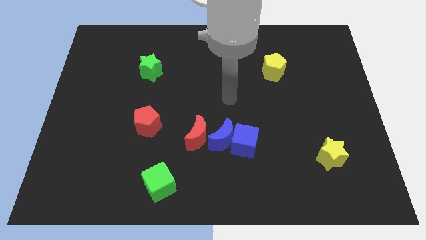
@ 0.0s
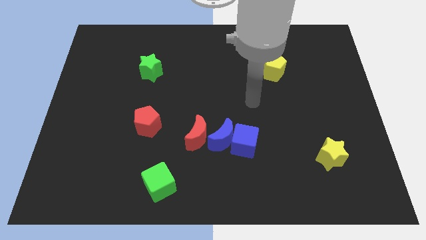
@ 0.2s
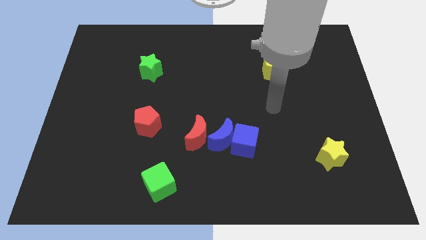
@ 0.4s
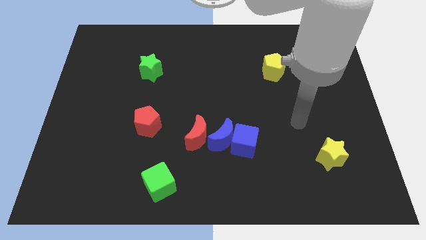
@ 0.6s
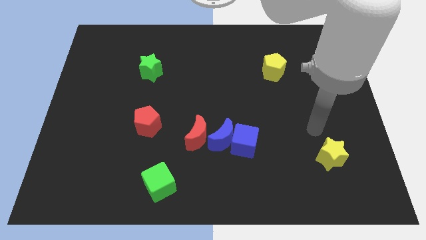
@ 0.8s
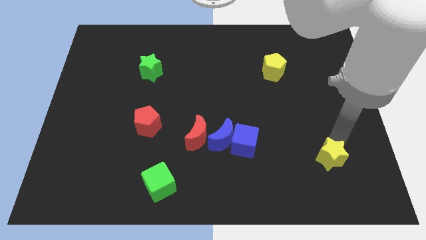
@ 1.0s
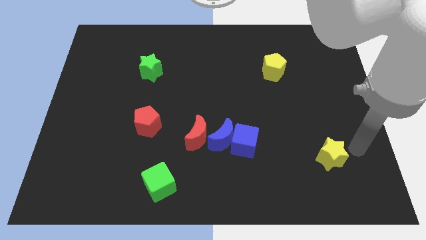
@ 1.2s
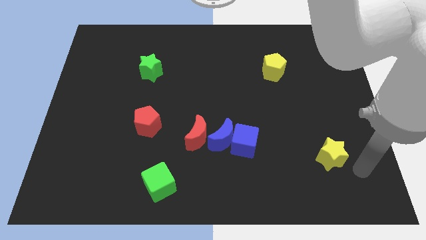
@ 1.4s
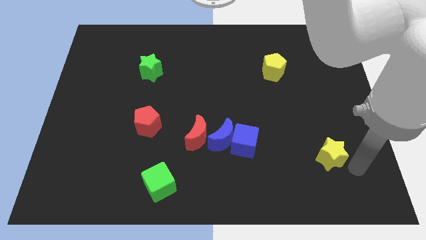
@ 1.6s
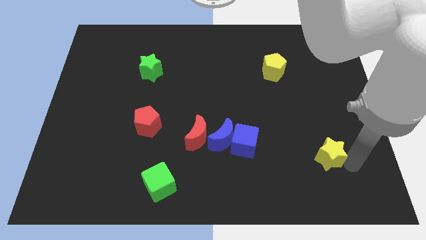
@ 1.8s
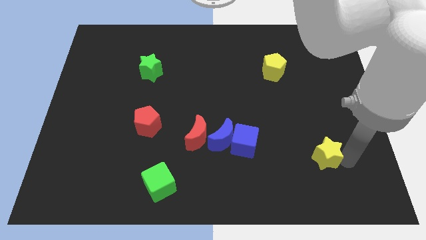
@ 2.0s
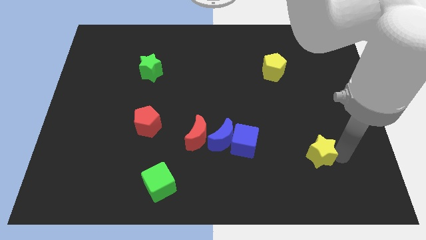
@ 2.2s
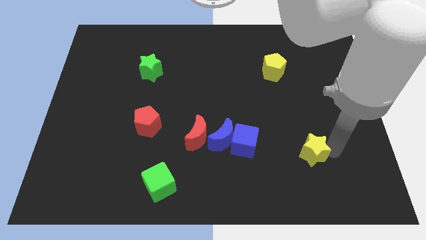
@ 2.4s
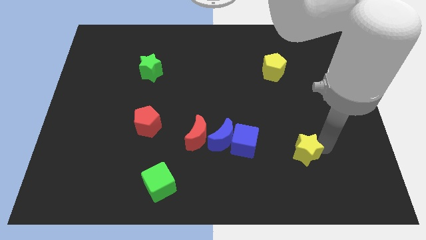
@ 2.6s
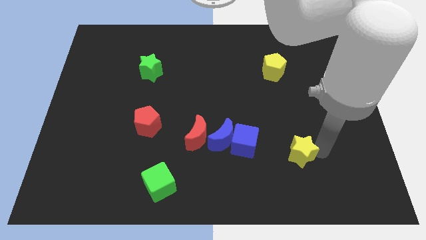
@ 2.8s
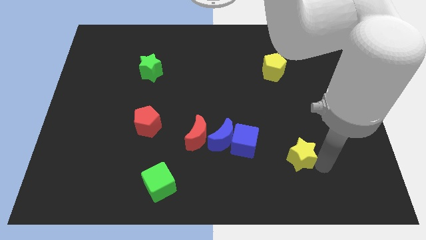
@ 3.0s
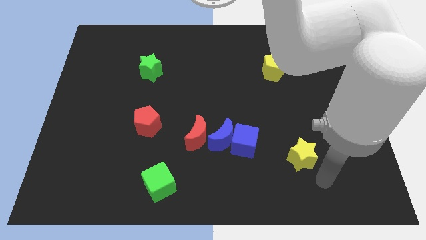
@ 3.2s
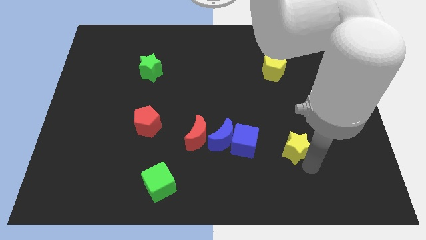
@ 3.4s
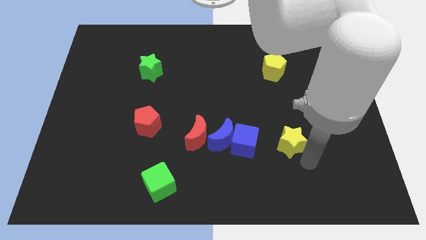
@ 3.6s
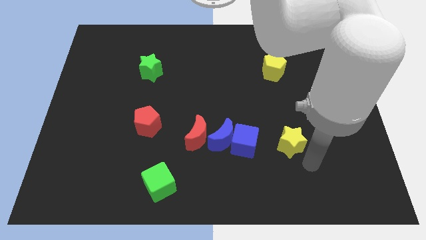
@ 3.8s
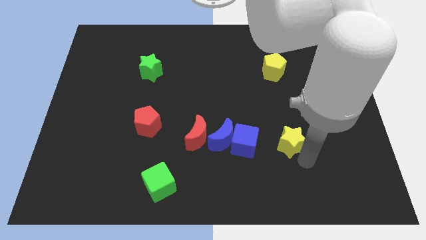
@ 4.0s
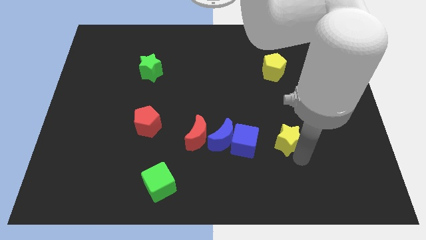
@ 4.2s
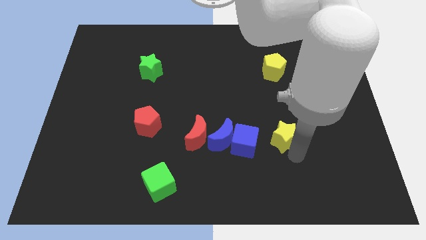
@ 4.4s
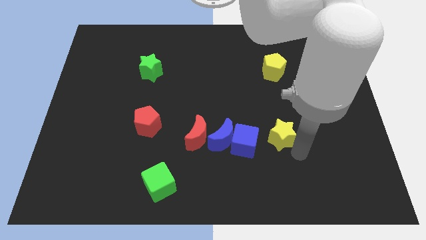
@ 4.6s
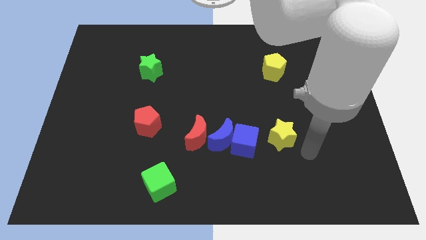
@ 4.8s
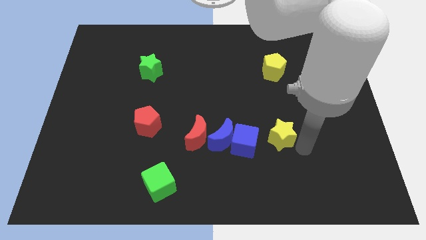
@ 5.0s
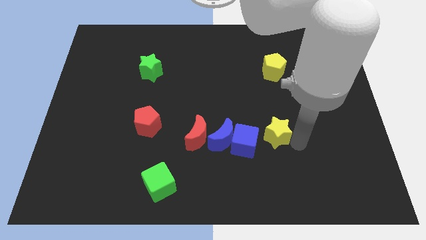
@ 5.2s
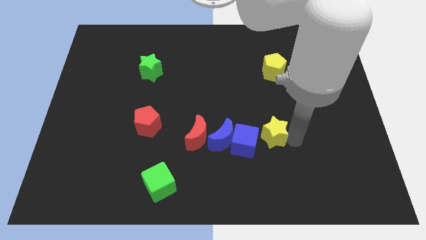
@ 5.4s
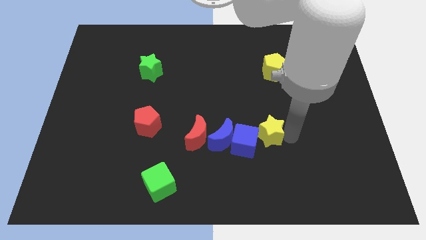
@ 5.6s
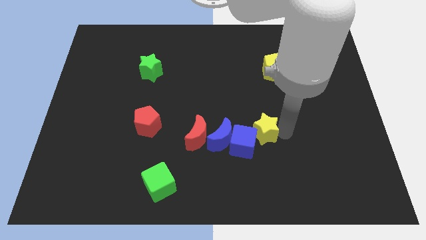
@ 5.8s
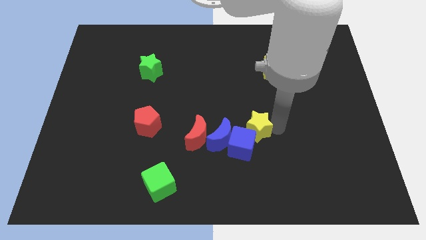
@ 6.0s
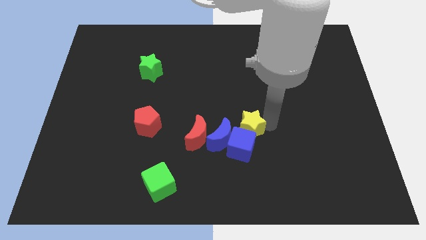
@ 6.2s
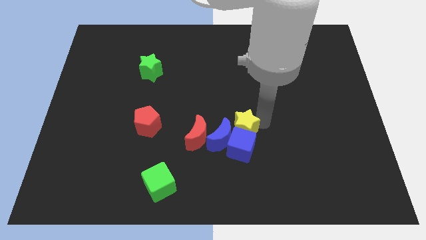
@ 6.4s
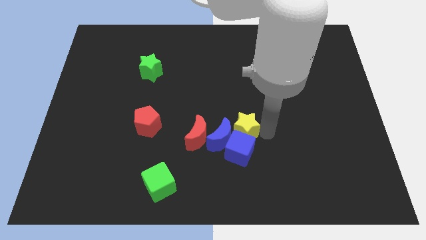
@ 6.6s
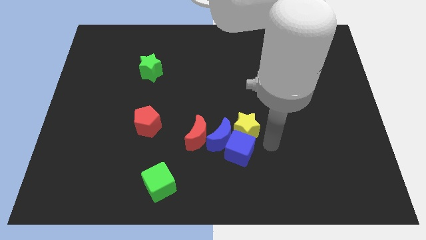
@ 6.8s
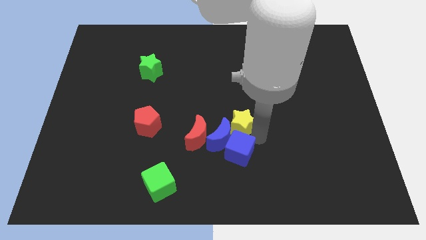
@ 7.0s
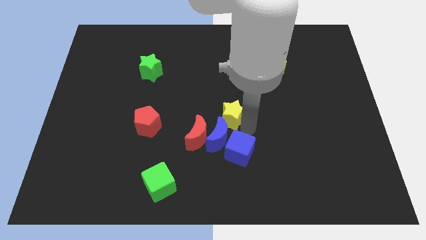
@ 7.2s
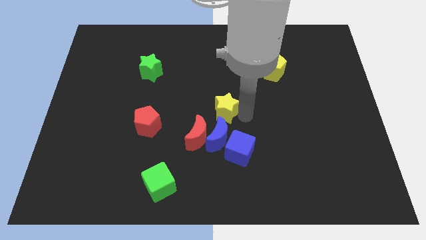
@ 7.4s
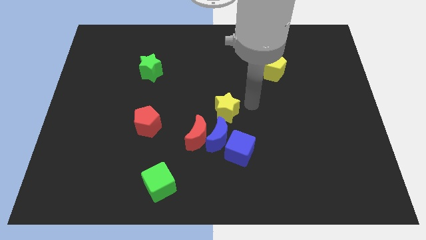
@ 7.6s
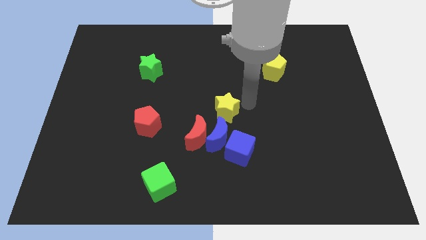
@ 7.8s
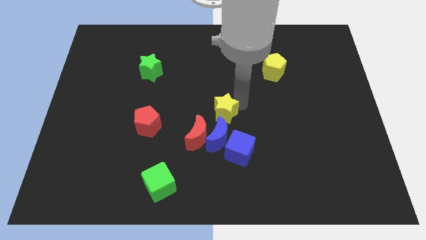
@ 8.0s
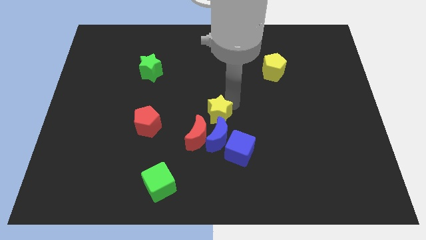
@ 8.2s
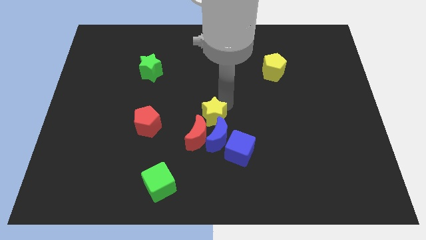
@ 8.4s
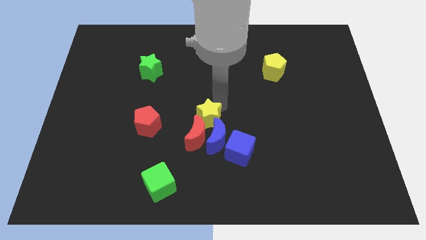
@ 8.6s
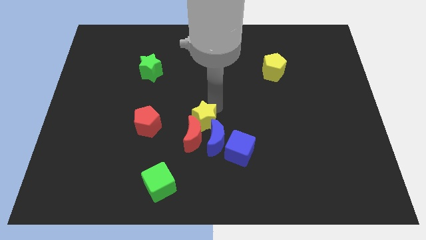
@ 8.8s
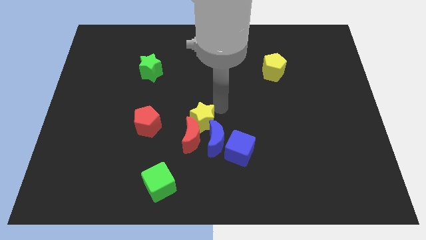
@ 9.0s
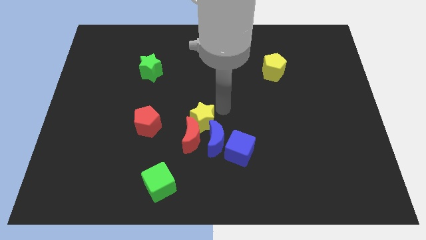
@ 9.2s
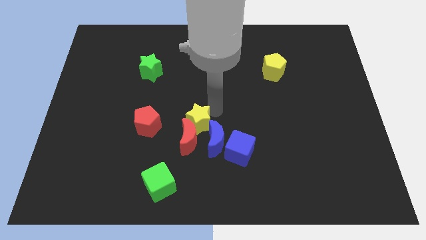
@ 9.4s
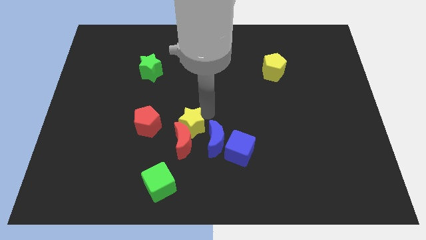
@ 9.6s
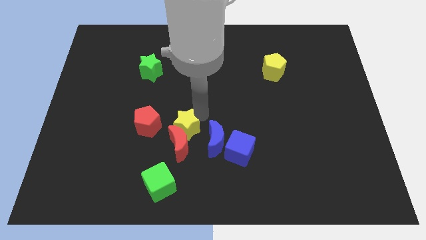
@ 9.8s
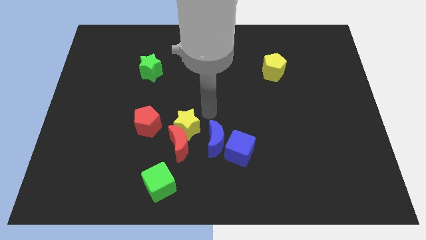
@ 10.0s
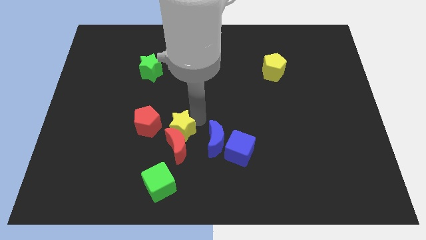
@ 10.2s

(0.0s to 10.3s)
put the yellow star to the top of the green cube

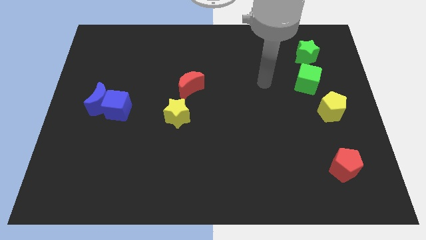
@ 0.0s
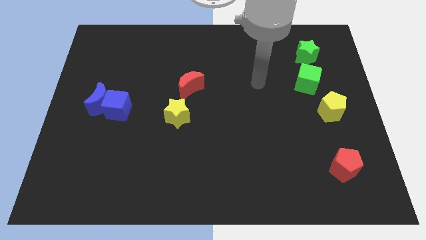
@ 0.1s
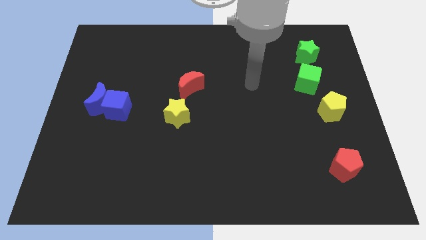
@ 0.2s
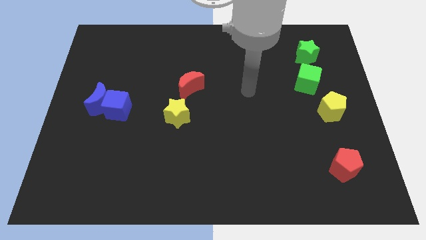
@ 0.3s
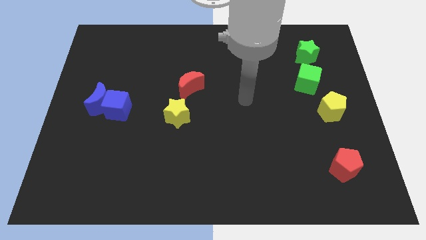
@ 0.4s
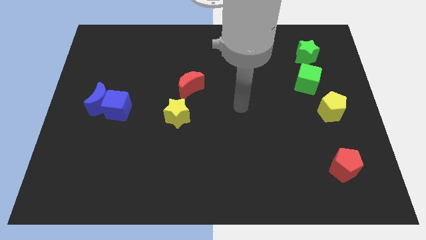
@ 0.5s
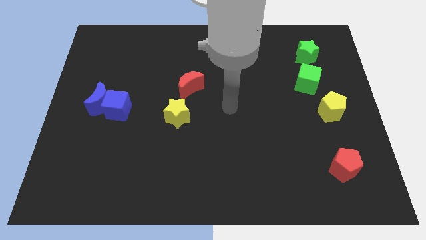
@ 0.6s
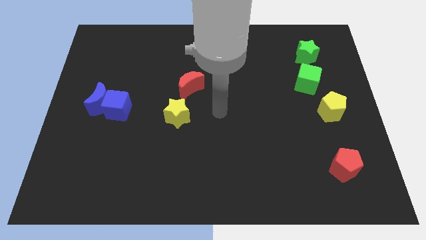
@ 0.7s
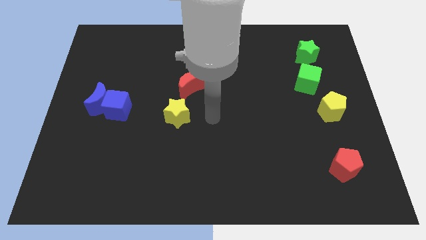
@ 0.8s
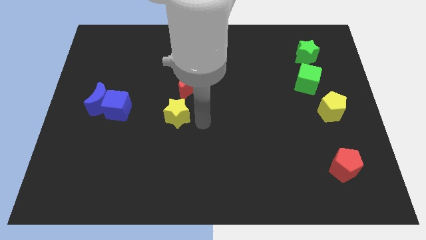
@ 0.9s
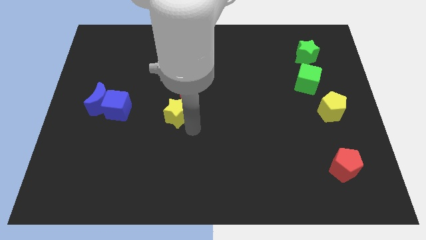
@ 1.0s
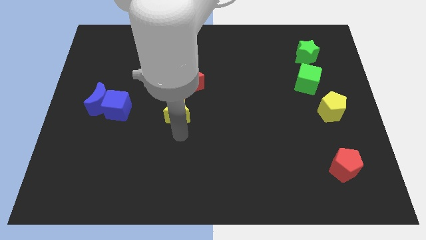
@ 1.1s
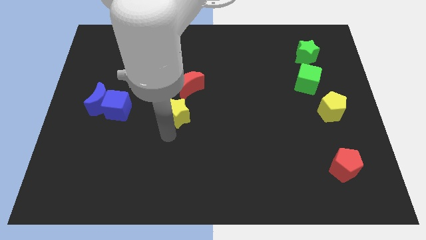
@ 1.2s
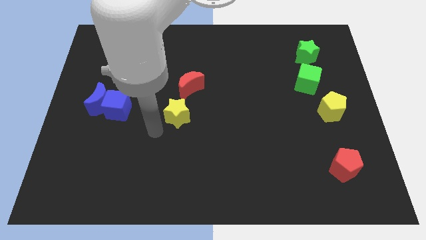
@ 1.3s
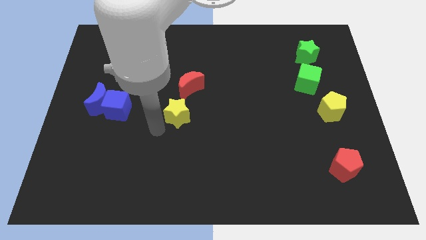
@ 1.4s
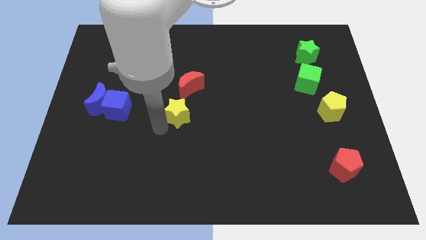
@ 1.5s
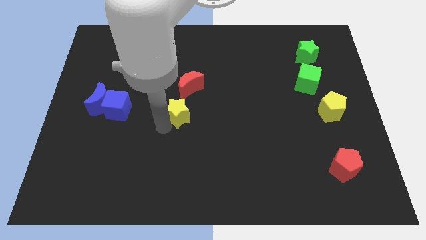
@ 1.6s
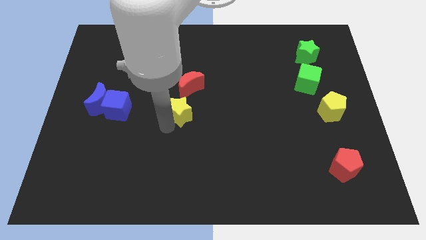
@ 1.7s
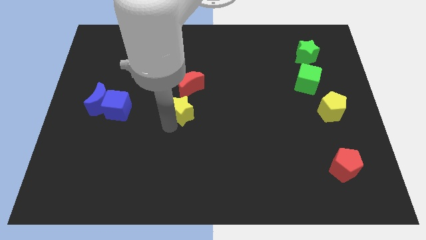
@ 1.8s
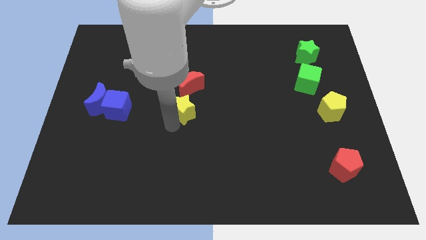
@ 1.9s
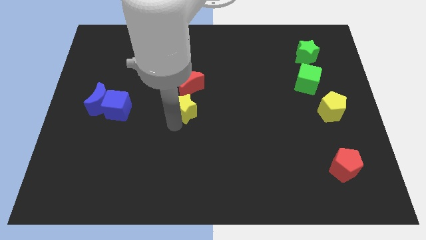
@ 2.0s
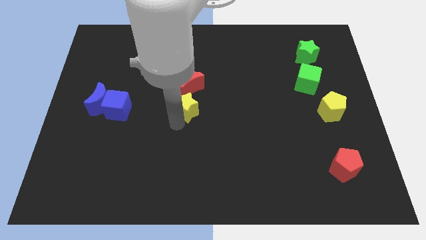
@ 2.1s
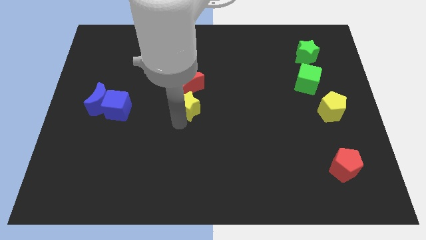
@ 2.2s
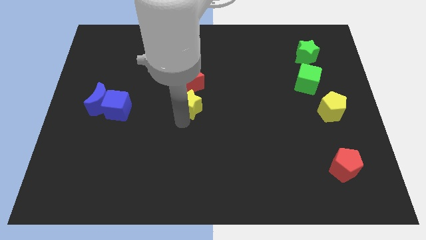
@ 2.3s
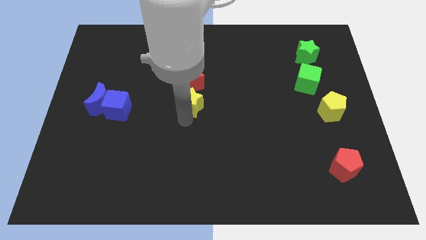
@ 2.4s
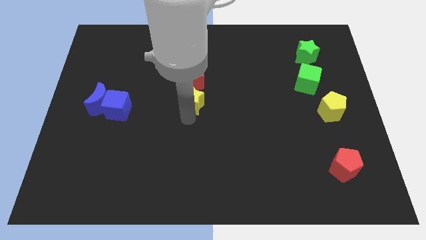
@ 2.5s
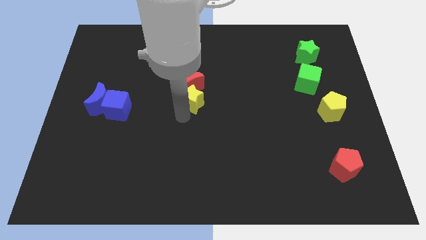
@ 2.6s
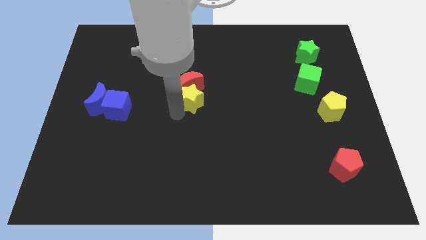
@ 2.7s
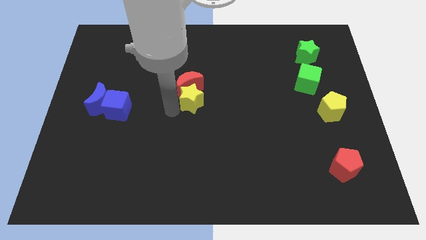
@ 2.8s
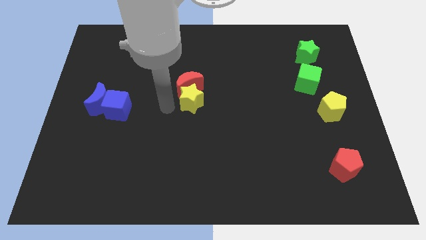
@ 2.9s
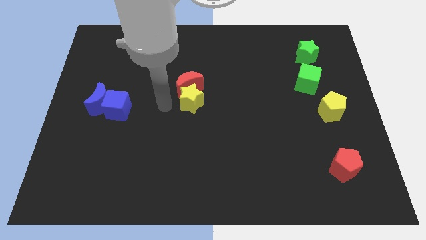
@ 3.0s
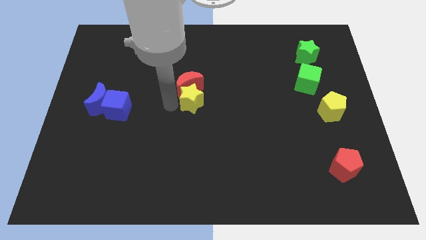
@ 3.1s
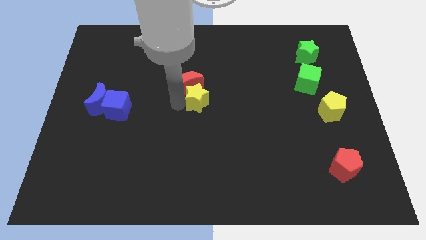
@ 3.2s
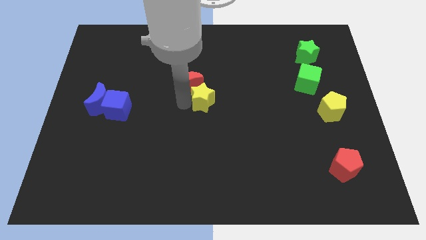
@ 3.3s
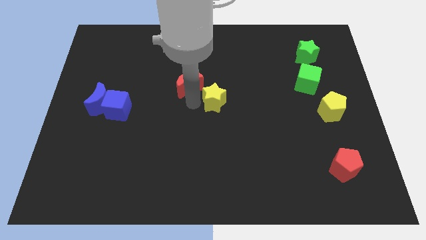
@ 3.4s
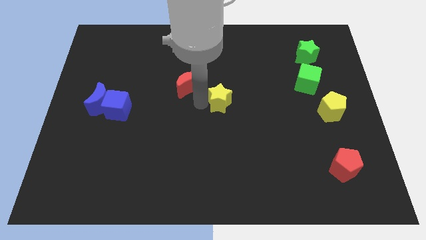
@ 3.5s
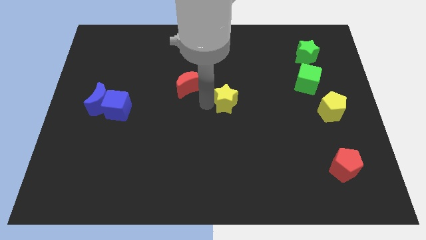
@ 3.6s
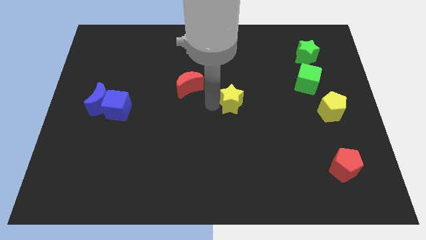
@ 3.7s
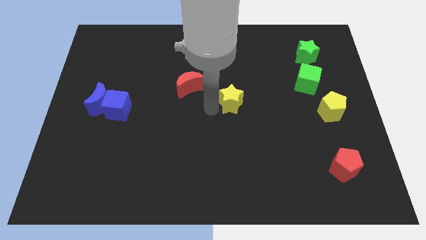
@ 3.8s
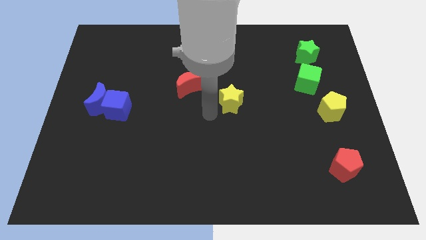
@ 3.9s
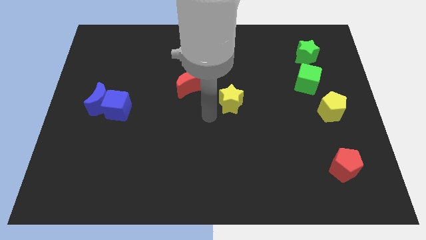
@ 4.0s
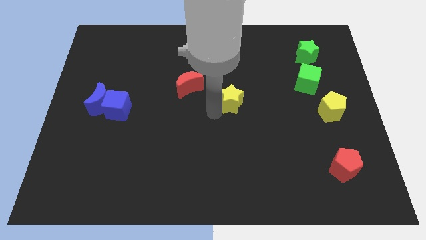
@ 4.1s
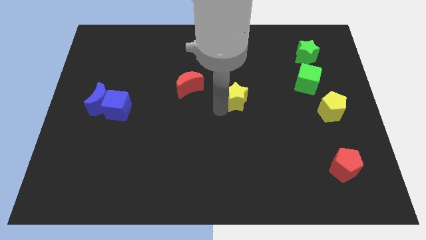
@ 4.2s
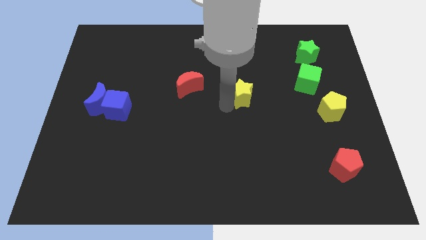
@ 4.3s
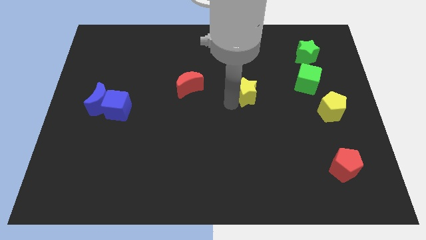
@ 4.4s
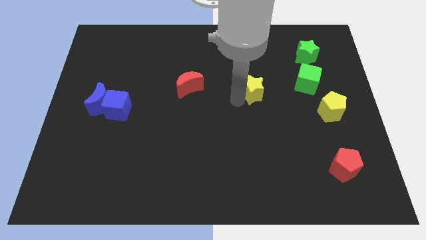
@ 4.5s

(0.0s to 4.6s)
slide the yellow star just left of the green cube
